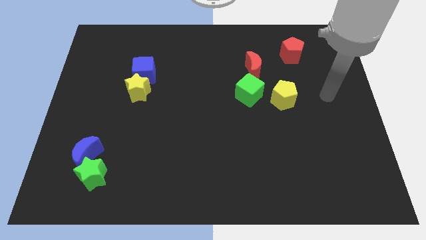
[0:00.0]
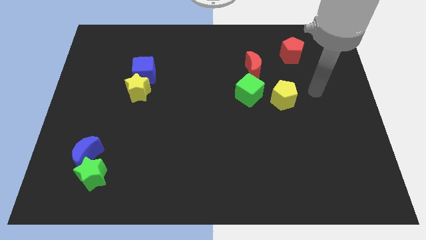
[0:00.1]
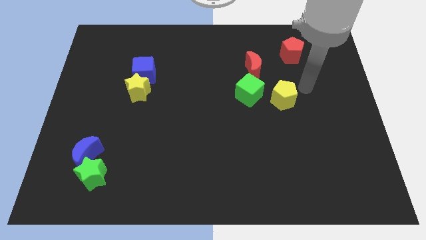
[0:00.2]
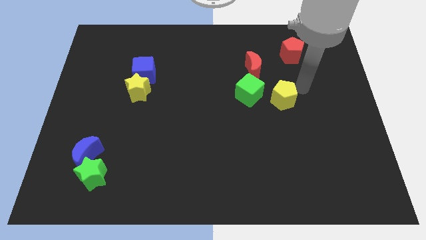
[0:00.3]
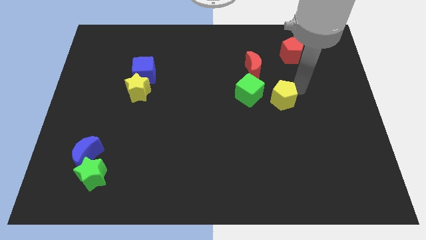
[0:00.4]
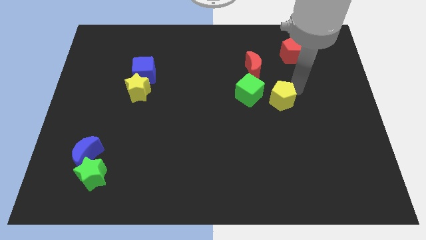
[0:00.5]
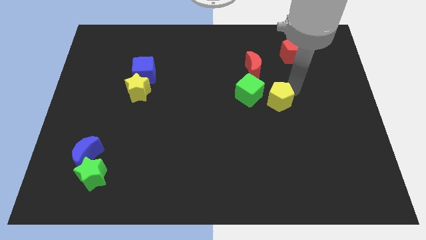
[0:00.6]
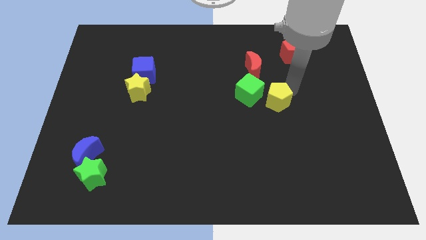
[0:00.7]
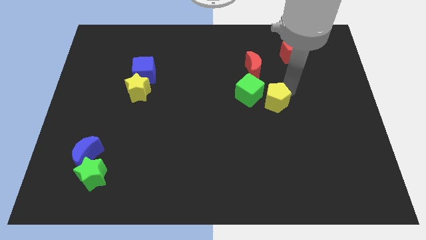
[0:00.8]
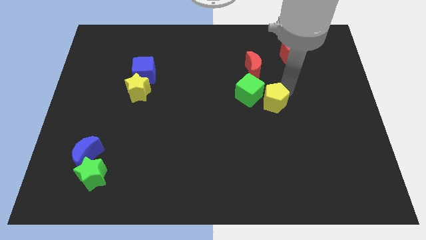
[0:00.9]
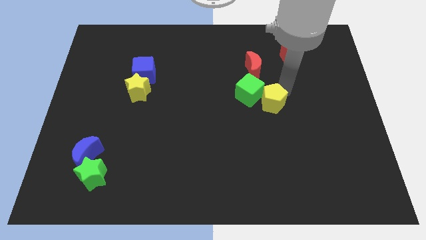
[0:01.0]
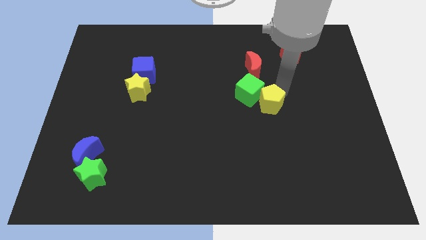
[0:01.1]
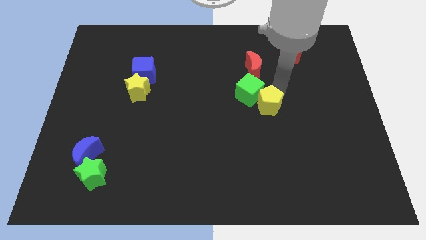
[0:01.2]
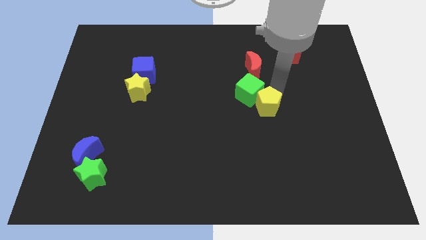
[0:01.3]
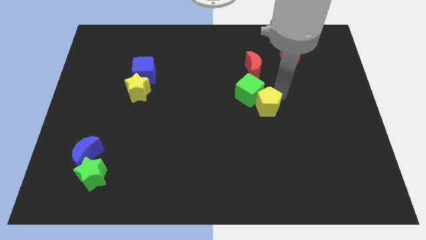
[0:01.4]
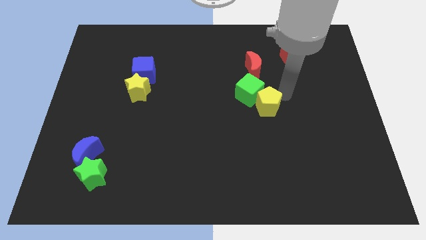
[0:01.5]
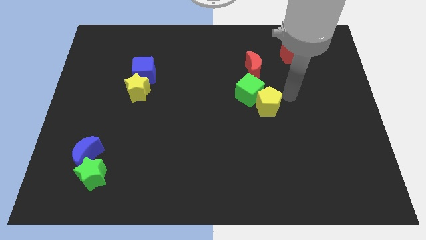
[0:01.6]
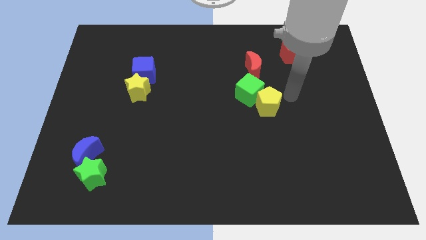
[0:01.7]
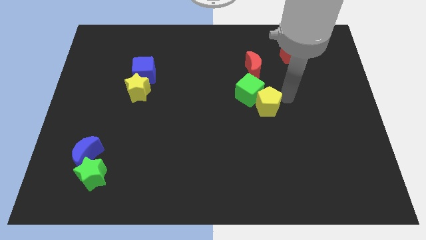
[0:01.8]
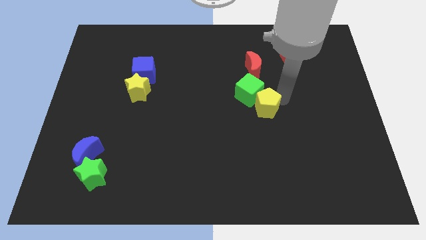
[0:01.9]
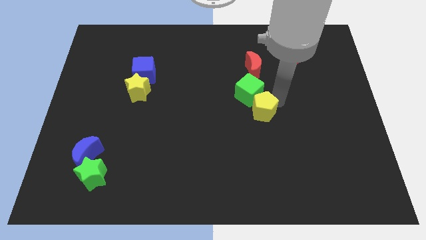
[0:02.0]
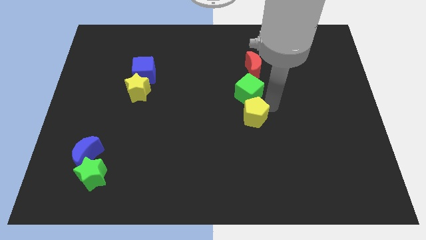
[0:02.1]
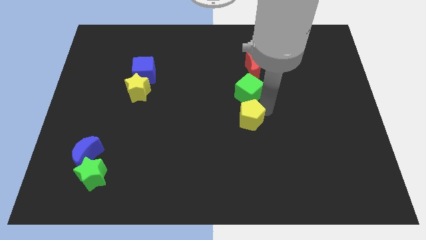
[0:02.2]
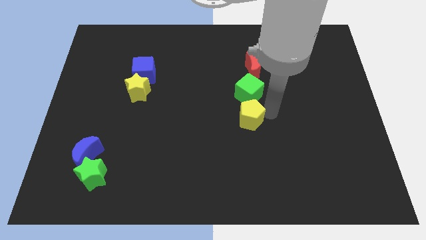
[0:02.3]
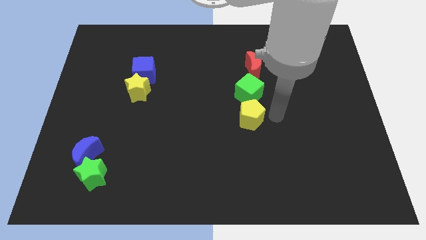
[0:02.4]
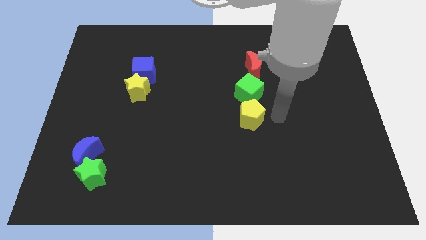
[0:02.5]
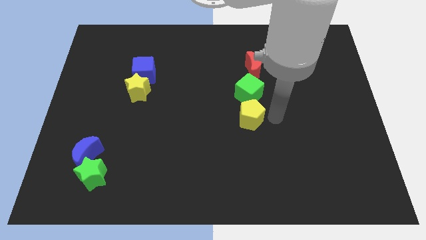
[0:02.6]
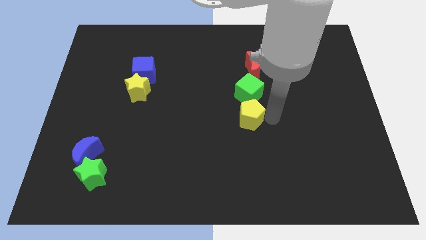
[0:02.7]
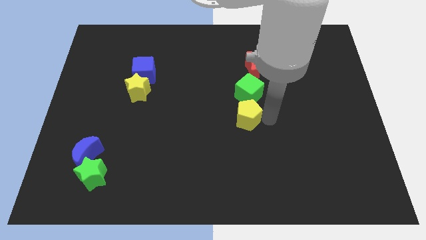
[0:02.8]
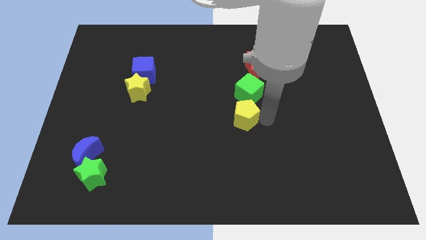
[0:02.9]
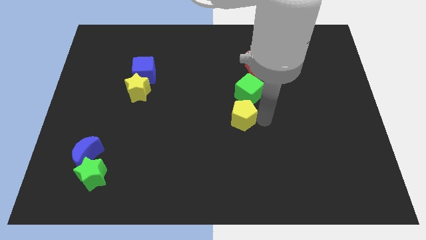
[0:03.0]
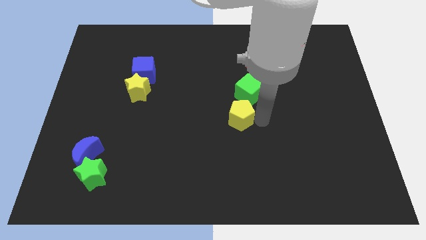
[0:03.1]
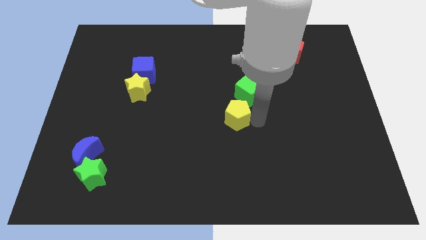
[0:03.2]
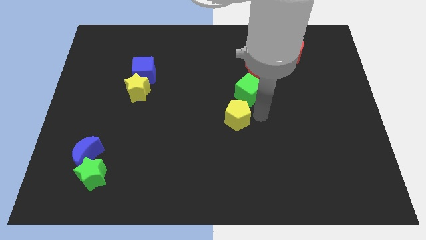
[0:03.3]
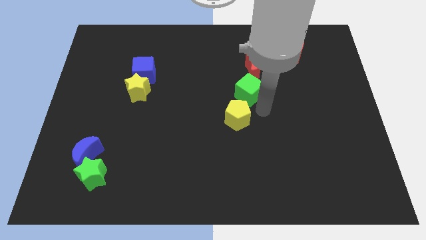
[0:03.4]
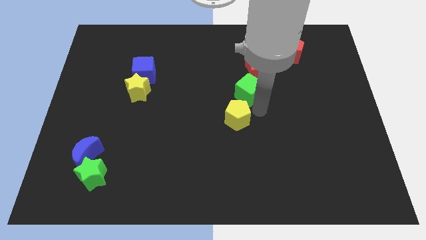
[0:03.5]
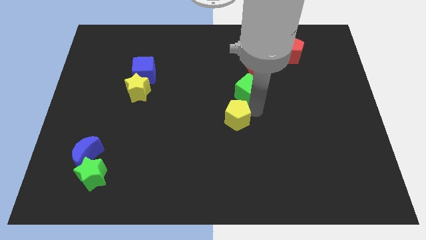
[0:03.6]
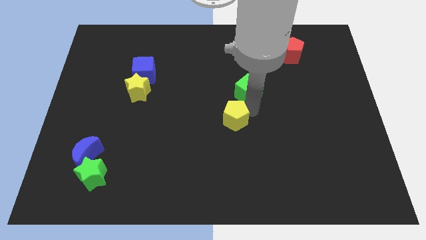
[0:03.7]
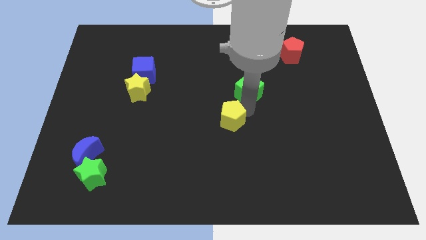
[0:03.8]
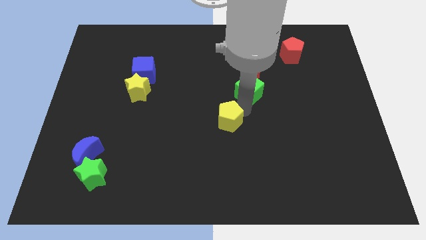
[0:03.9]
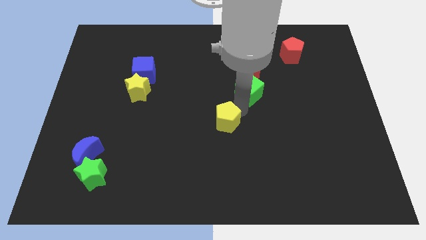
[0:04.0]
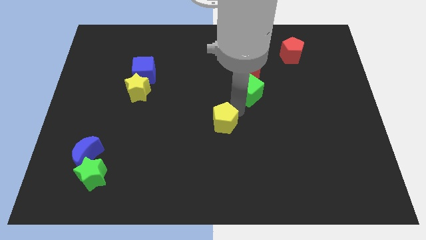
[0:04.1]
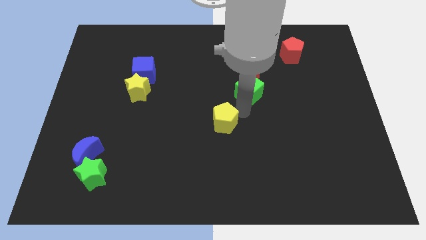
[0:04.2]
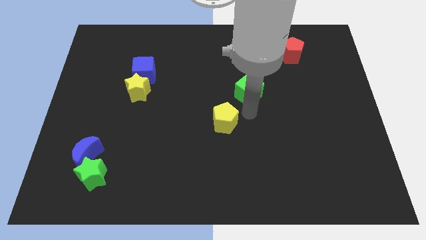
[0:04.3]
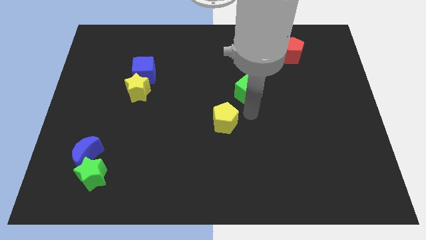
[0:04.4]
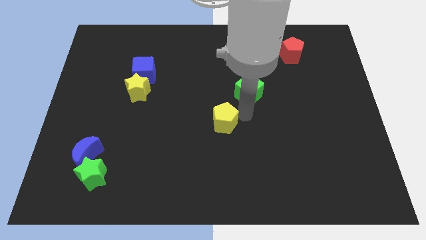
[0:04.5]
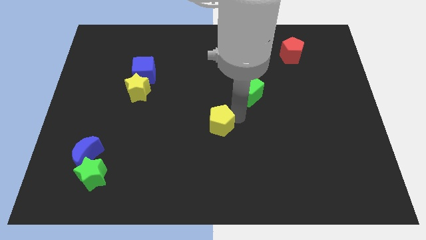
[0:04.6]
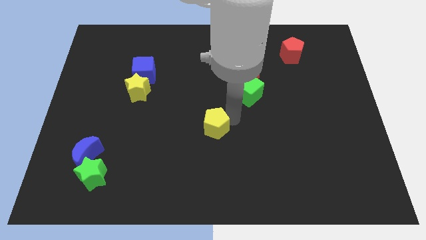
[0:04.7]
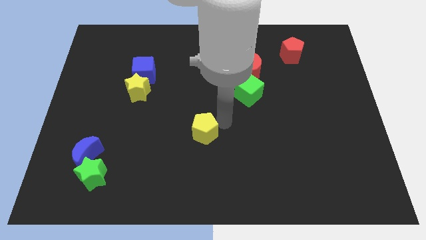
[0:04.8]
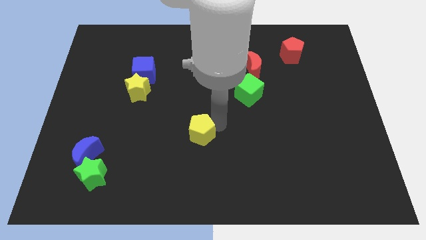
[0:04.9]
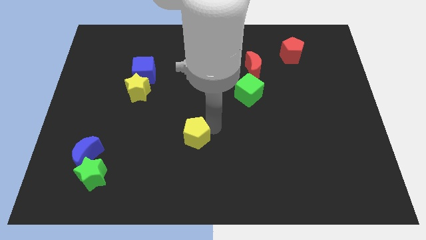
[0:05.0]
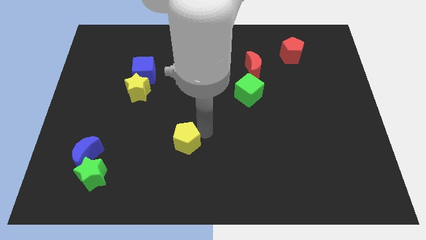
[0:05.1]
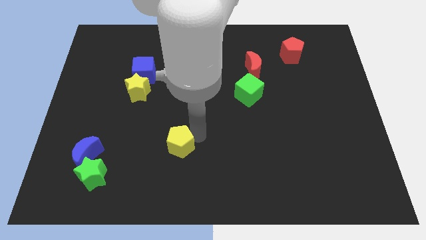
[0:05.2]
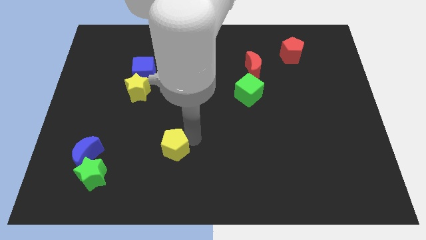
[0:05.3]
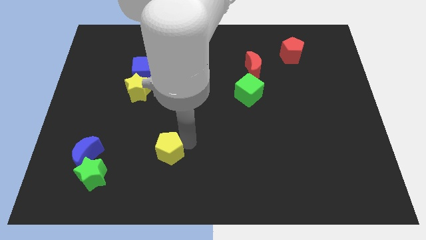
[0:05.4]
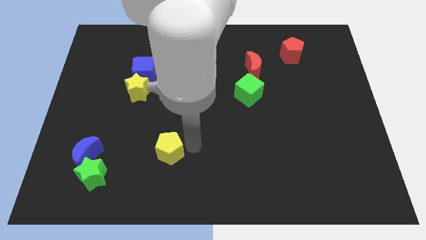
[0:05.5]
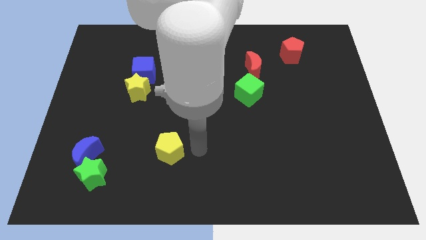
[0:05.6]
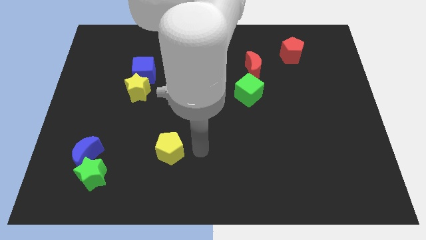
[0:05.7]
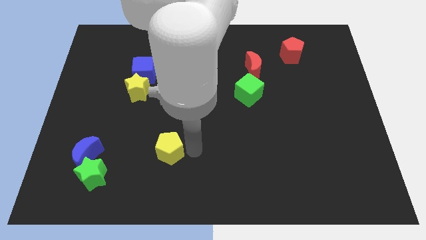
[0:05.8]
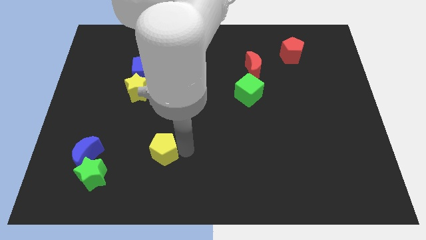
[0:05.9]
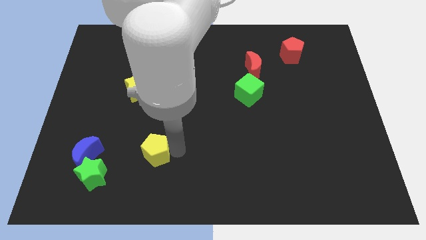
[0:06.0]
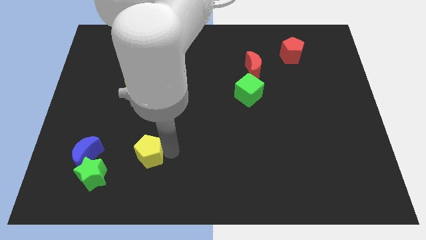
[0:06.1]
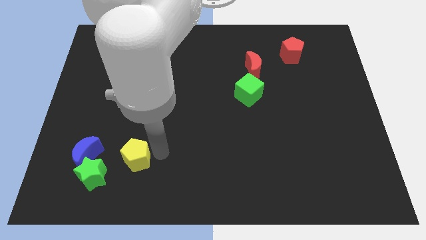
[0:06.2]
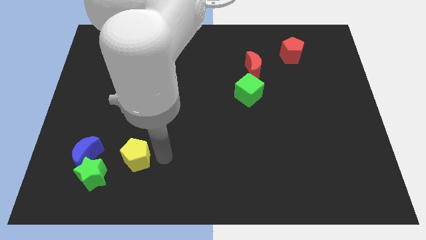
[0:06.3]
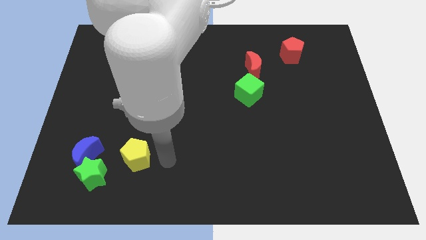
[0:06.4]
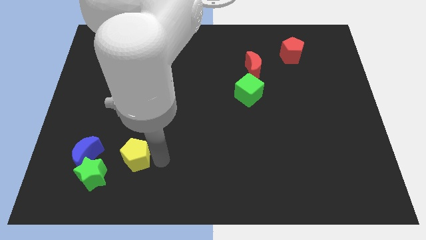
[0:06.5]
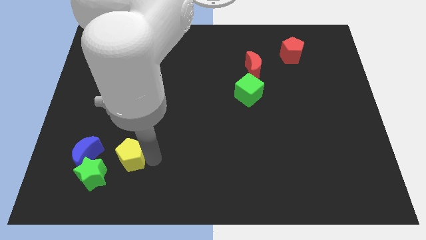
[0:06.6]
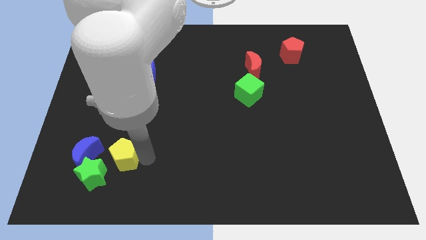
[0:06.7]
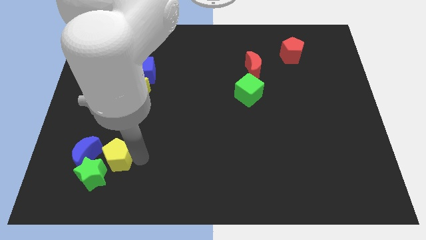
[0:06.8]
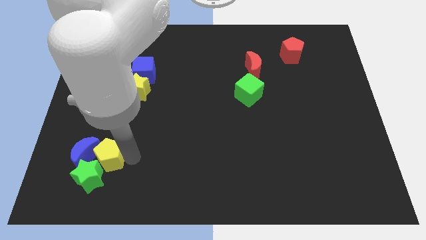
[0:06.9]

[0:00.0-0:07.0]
move the yellow pentagon next to the blue moon
